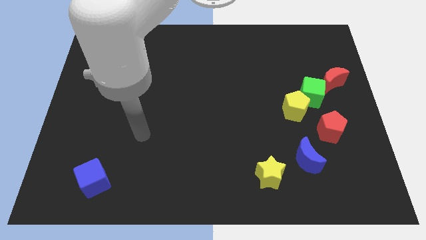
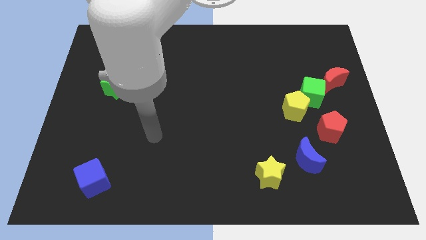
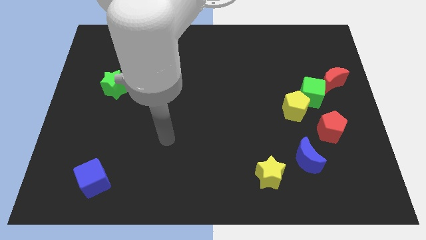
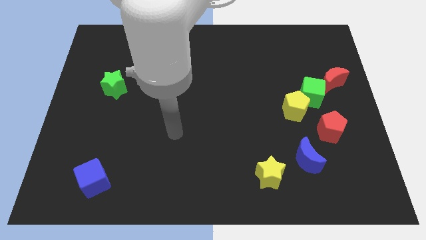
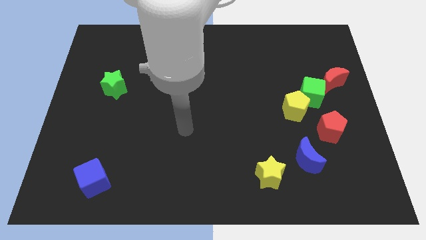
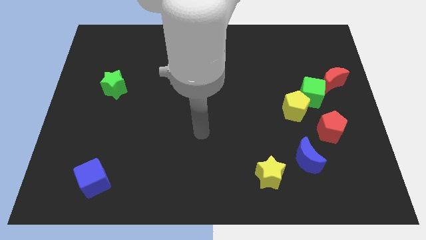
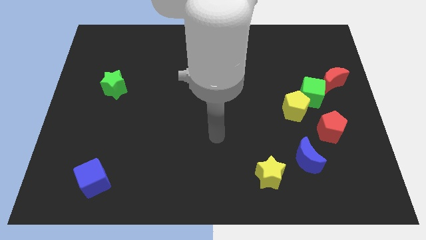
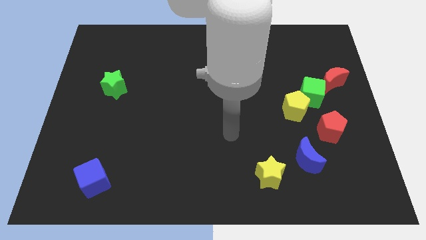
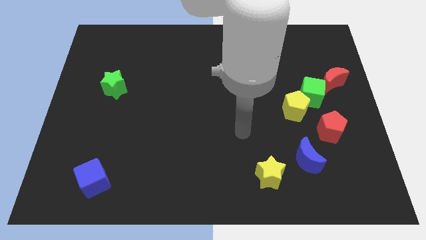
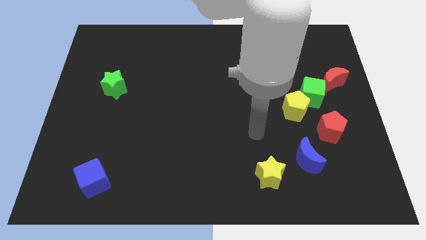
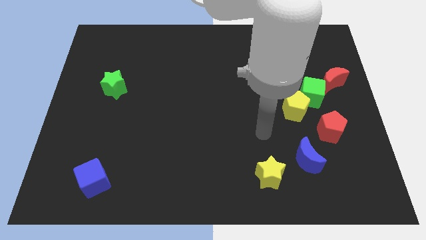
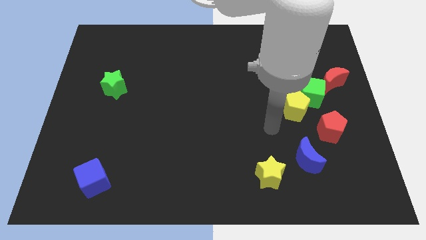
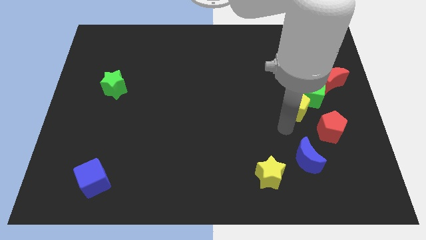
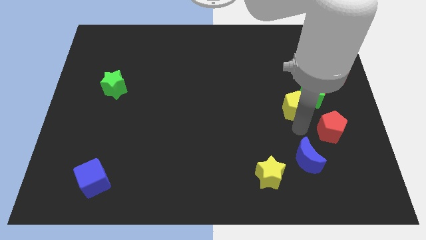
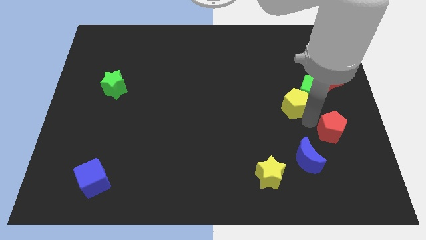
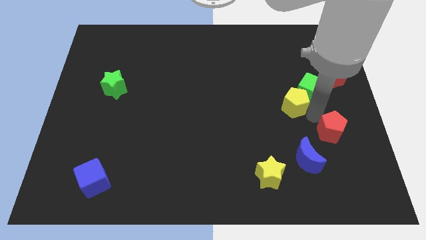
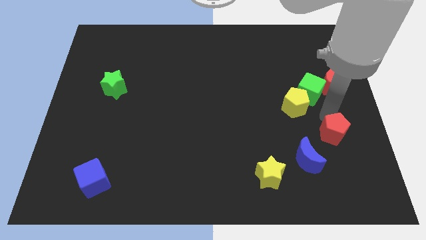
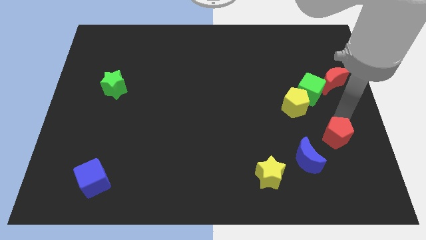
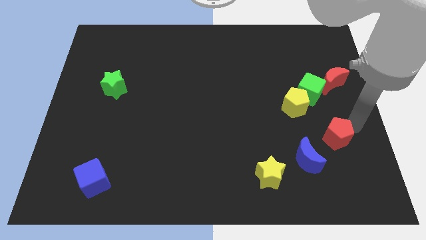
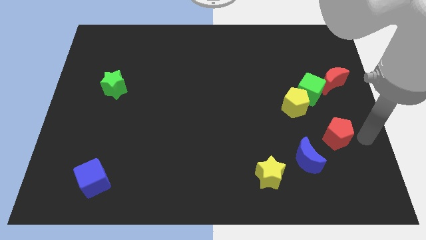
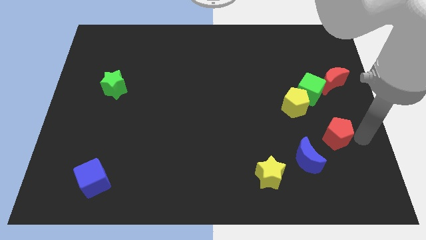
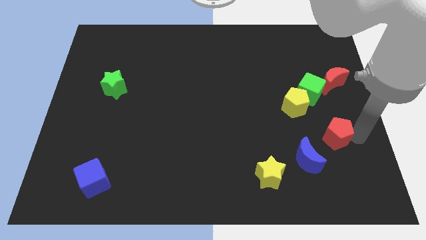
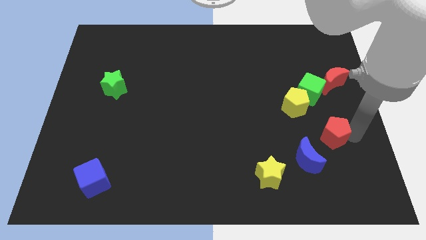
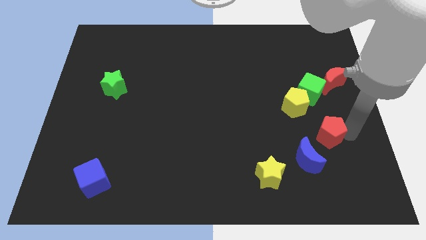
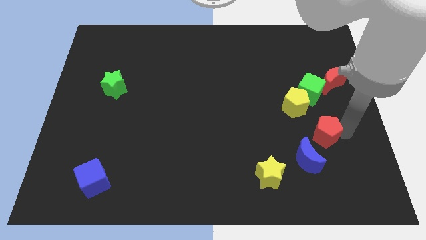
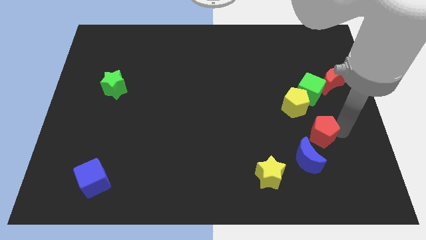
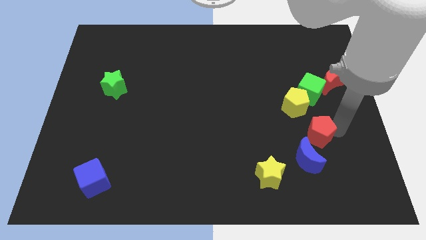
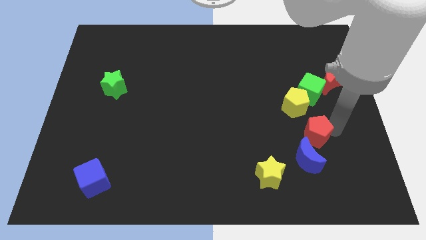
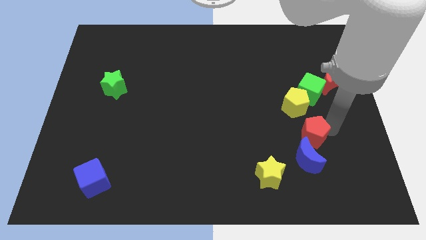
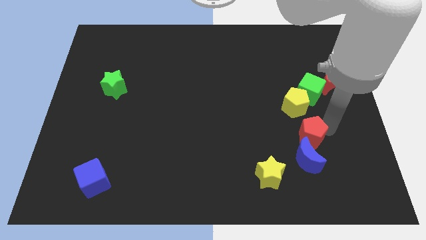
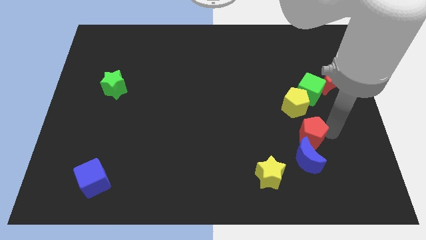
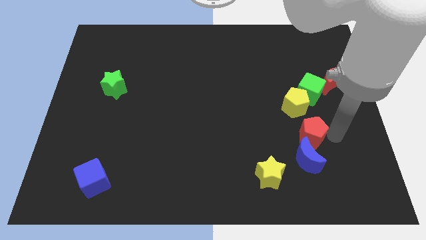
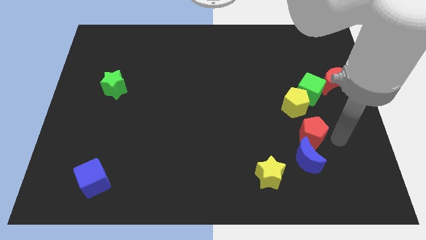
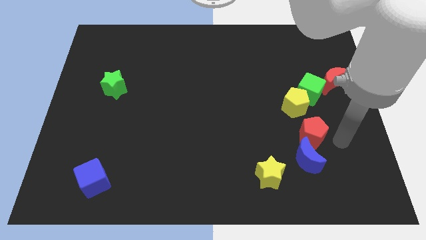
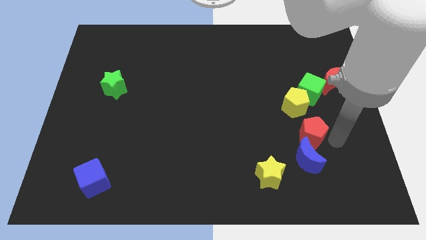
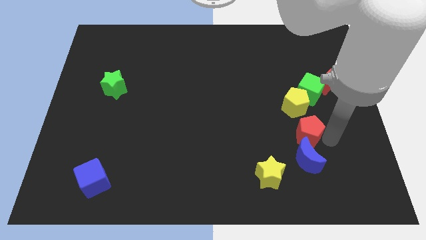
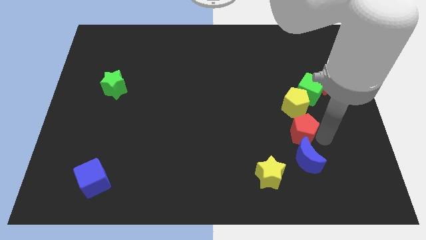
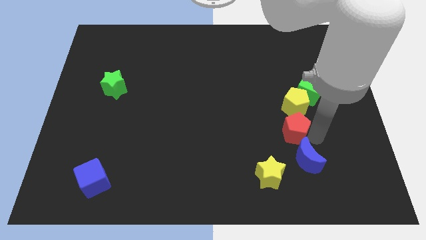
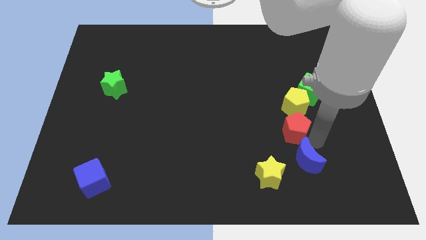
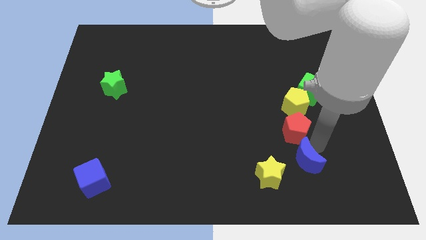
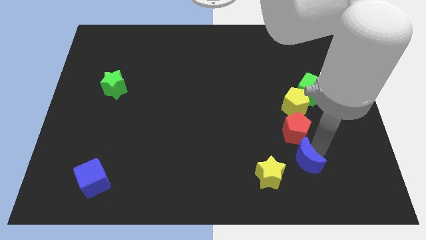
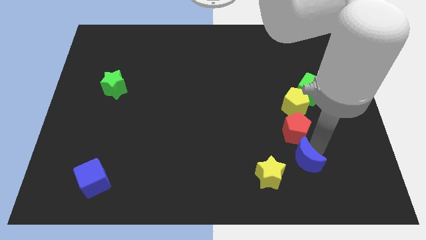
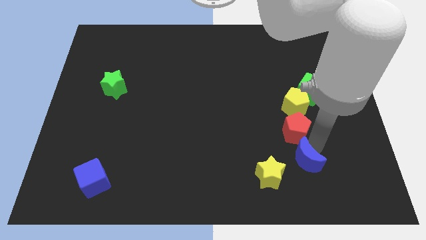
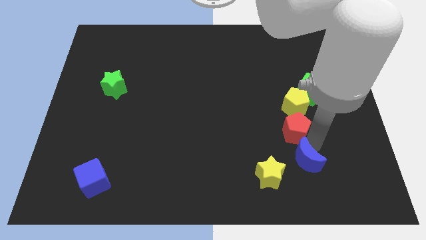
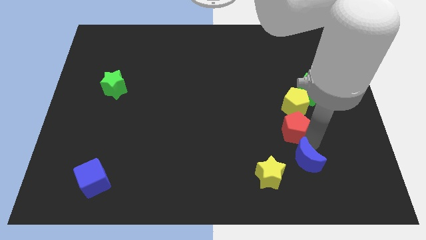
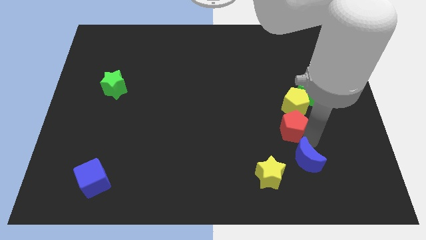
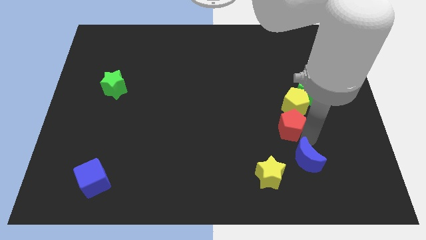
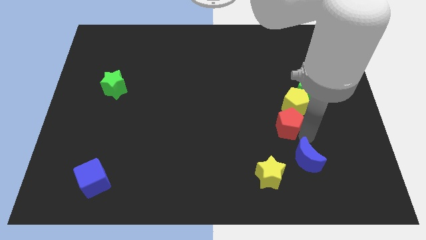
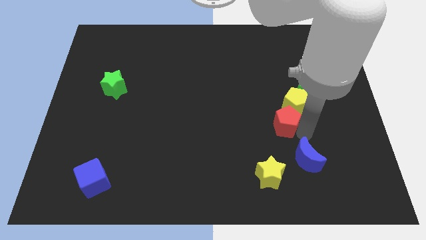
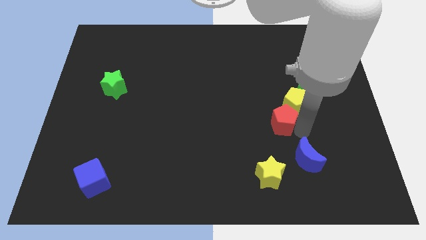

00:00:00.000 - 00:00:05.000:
slide the red pentagon up and left a bit

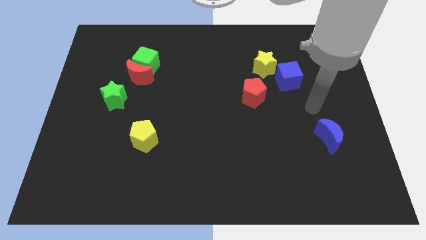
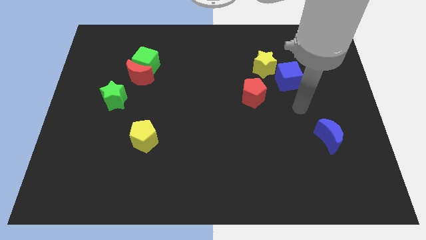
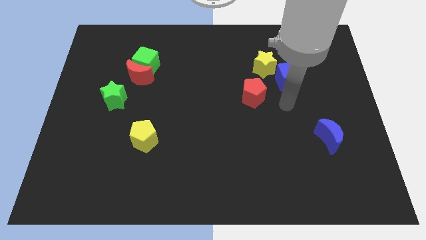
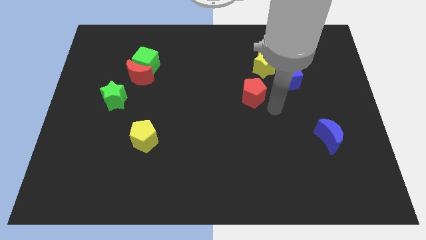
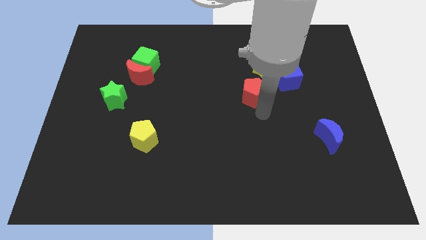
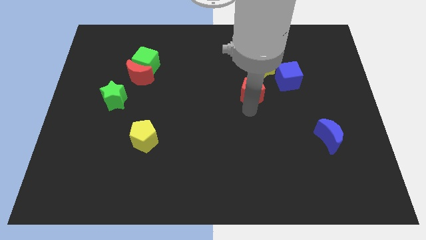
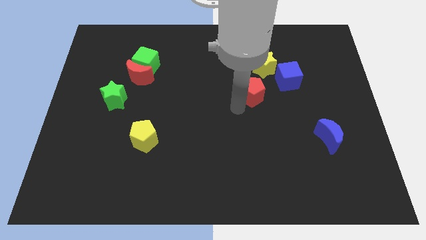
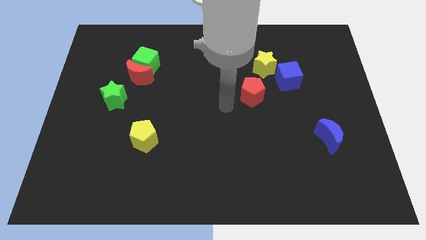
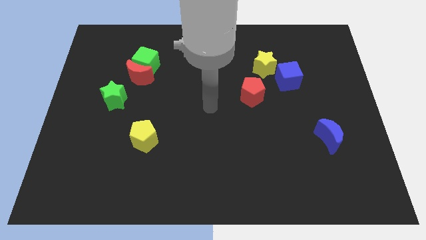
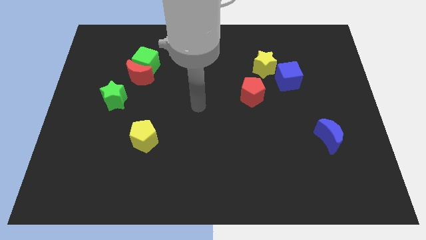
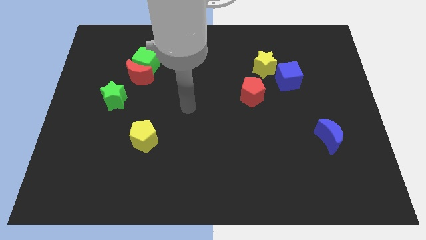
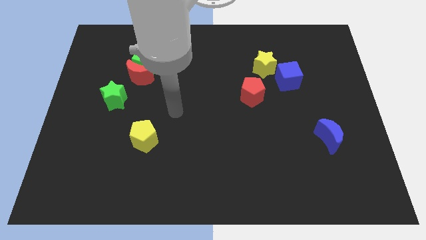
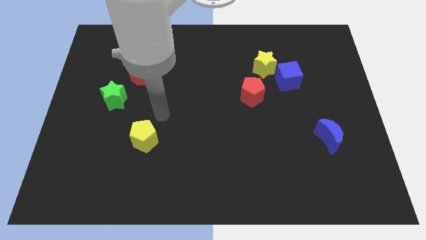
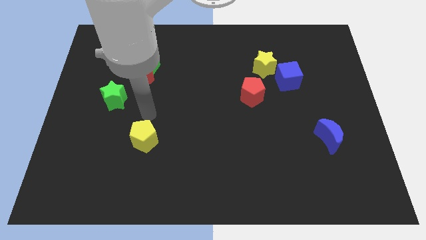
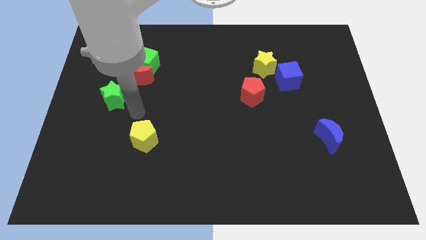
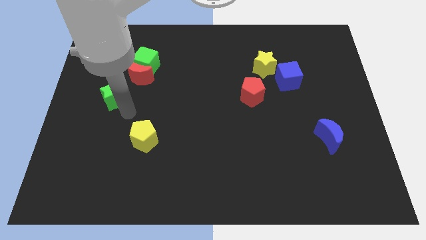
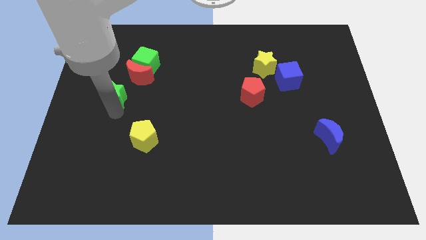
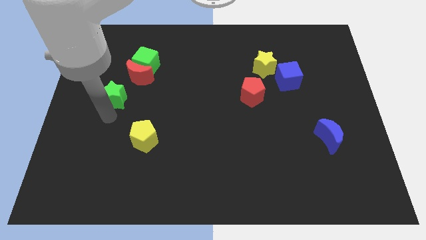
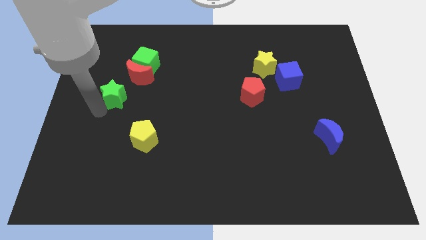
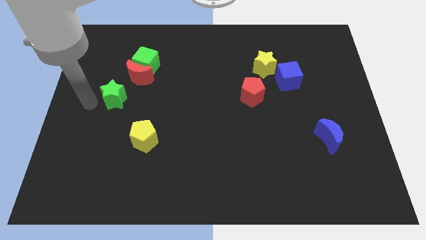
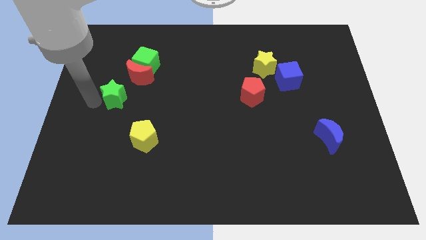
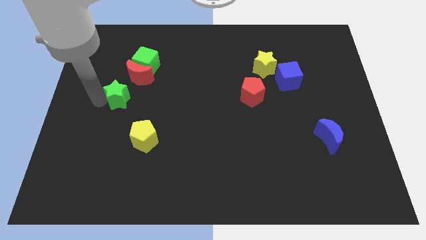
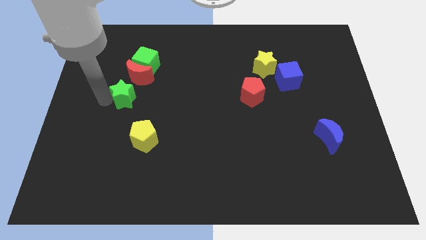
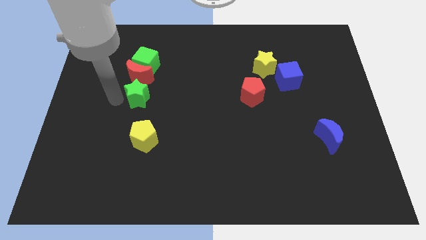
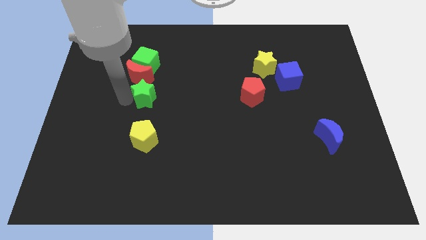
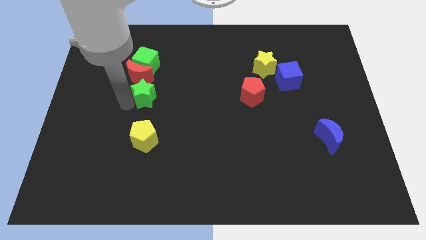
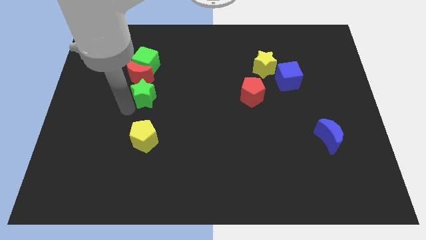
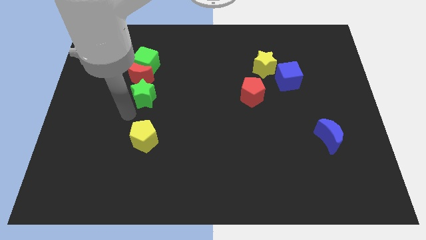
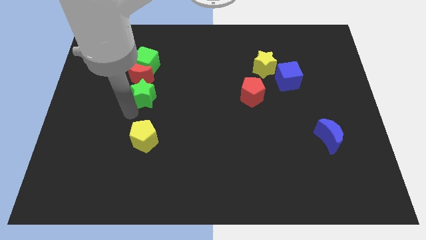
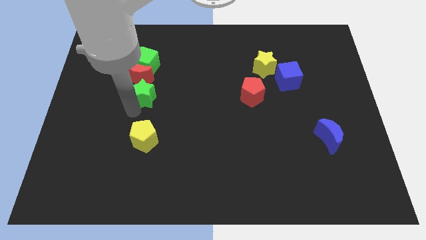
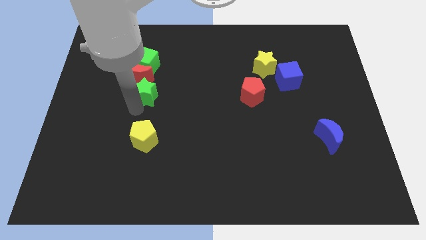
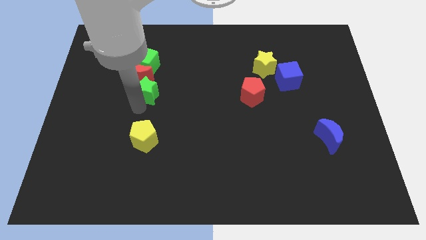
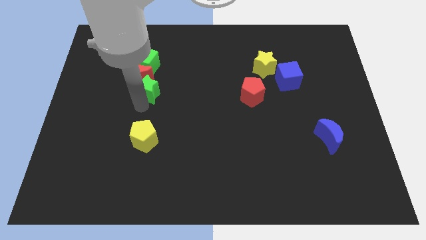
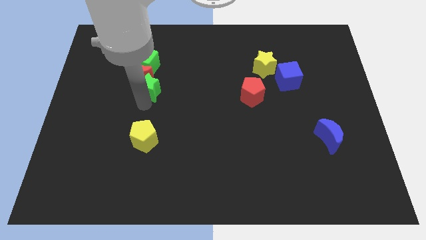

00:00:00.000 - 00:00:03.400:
move the green star a bit upwards and then right
